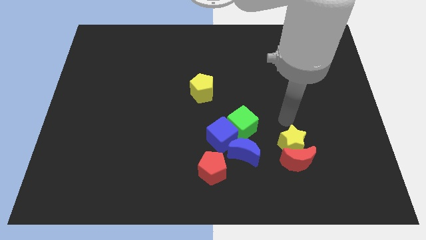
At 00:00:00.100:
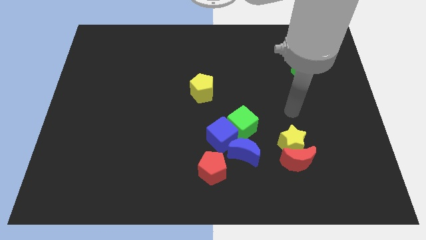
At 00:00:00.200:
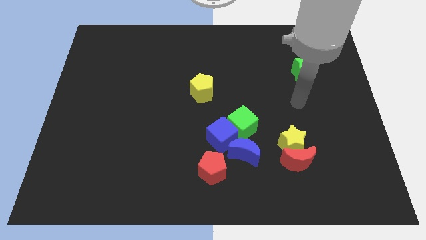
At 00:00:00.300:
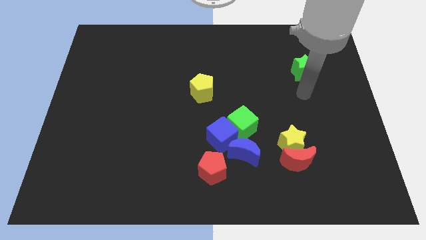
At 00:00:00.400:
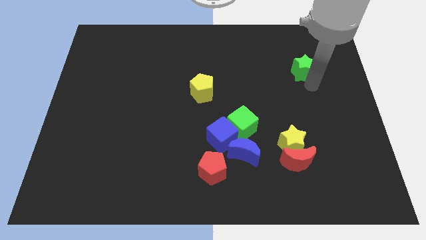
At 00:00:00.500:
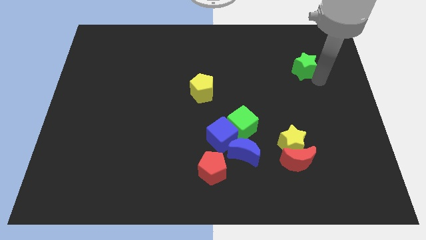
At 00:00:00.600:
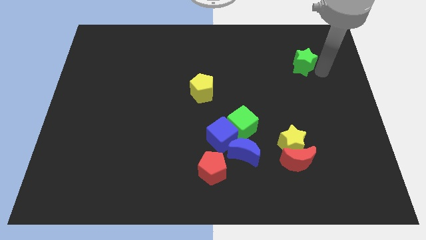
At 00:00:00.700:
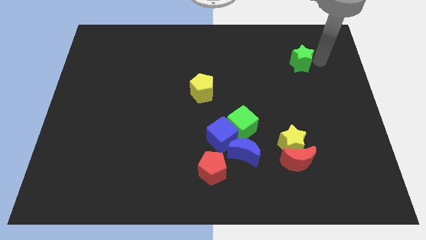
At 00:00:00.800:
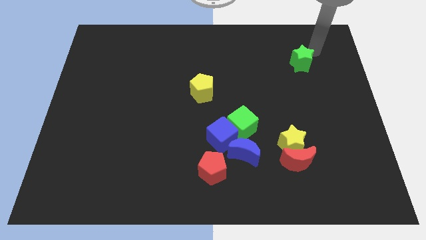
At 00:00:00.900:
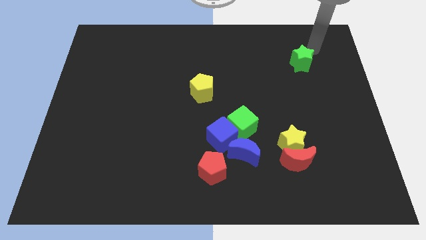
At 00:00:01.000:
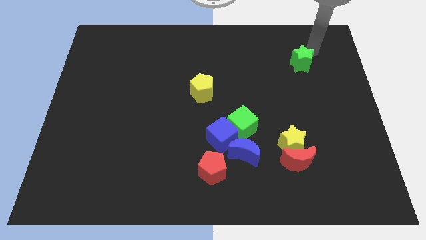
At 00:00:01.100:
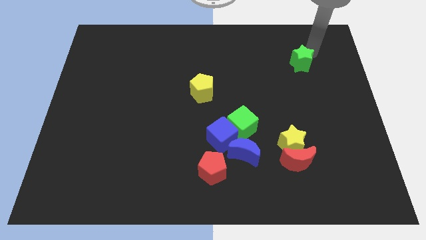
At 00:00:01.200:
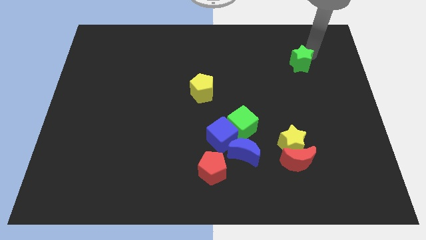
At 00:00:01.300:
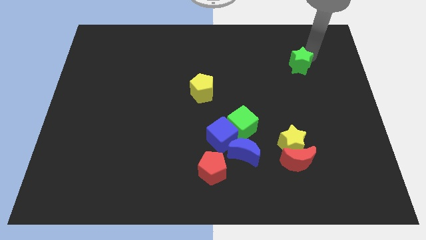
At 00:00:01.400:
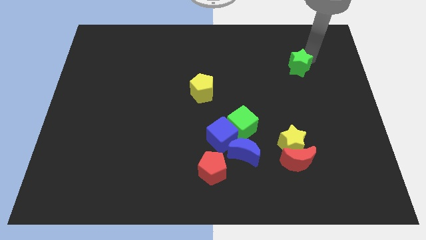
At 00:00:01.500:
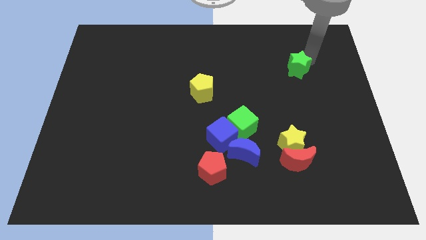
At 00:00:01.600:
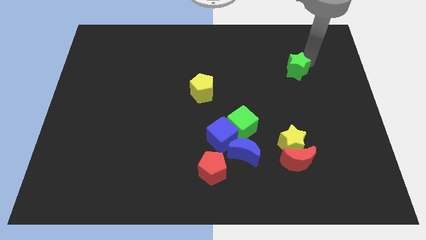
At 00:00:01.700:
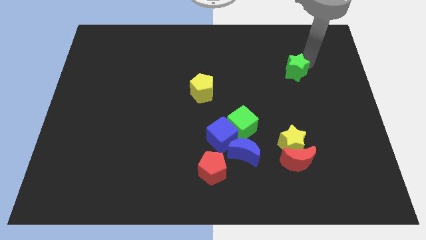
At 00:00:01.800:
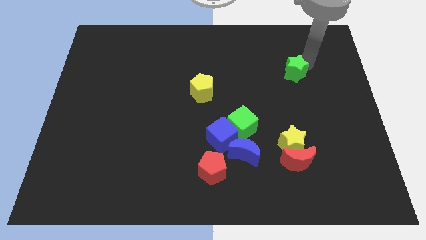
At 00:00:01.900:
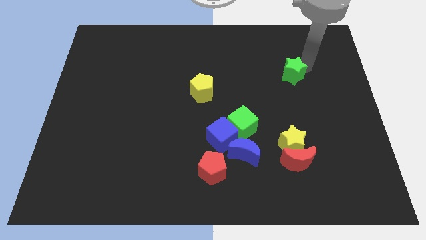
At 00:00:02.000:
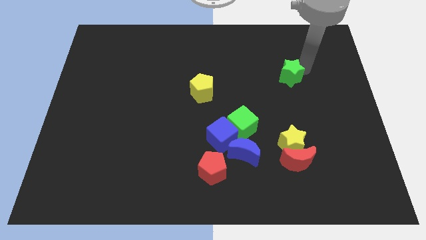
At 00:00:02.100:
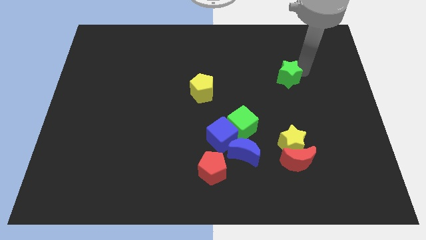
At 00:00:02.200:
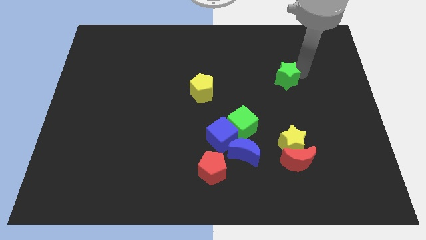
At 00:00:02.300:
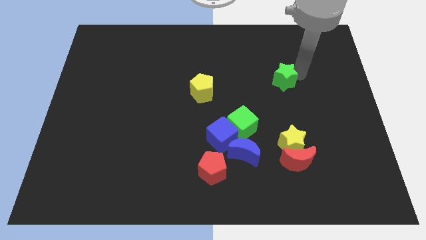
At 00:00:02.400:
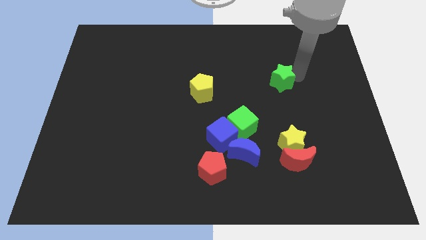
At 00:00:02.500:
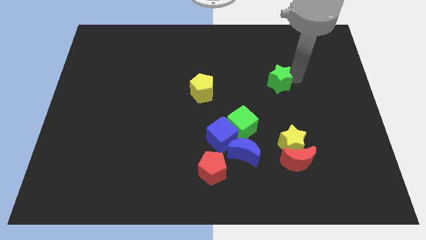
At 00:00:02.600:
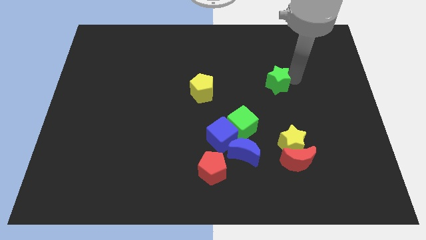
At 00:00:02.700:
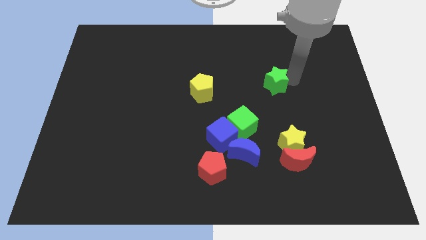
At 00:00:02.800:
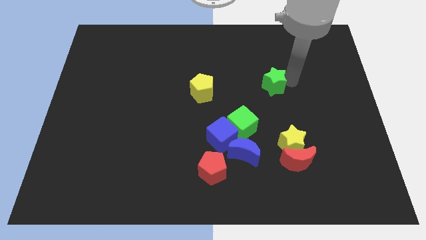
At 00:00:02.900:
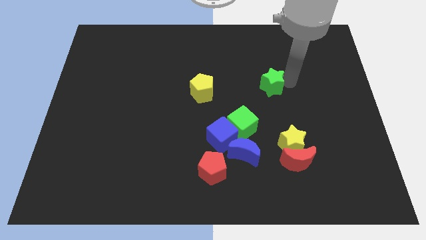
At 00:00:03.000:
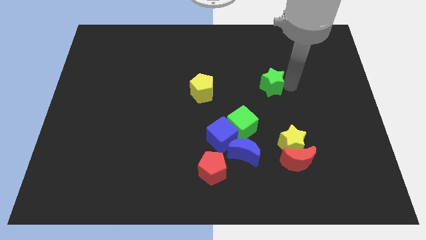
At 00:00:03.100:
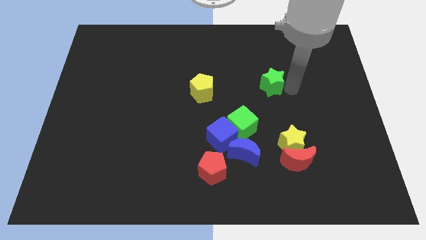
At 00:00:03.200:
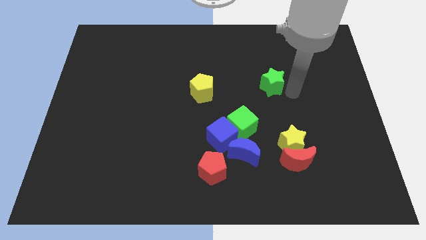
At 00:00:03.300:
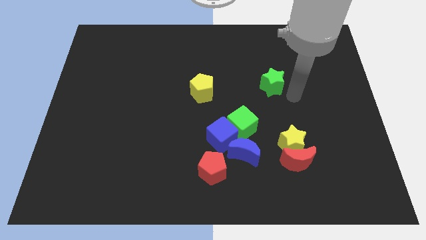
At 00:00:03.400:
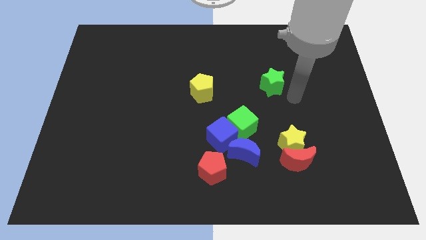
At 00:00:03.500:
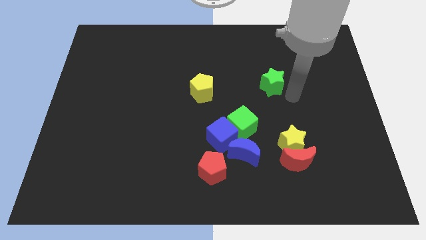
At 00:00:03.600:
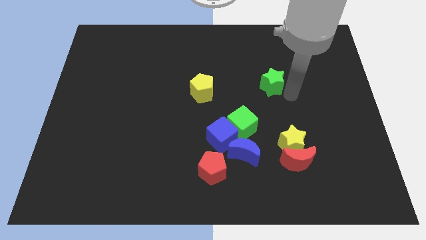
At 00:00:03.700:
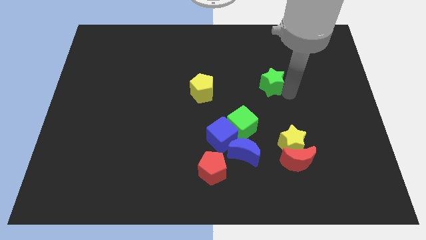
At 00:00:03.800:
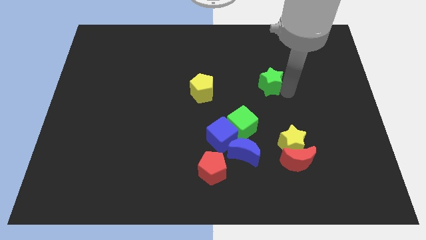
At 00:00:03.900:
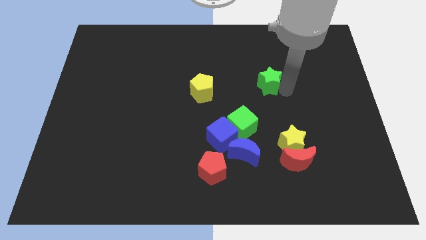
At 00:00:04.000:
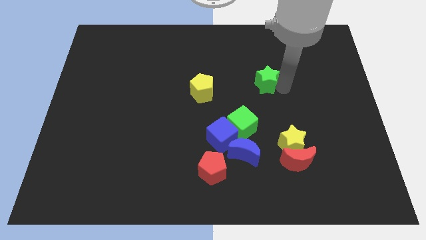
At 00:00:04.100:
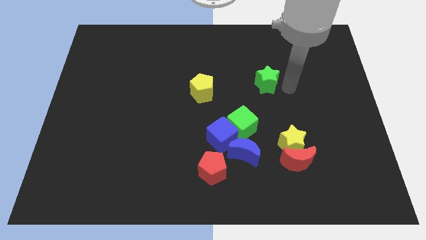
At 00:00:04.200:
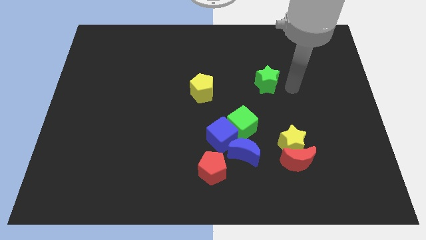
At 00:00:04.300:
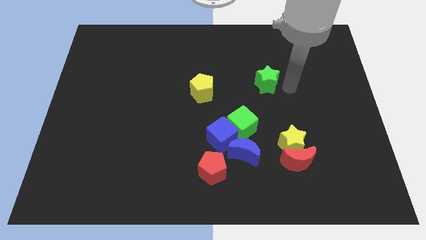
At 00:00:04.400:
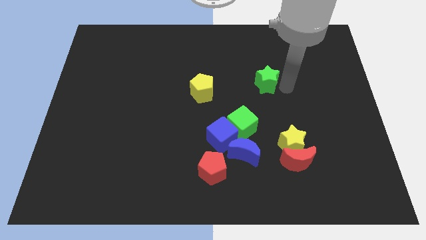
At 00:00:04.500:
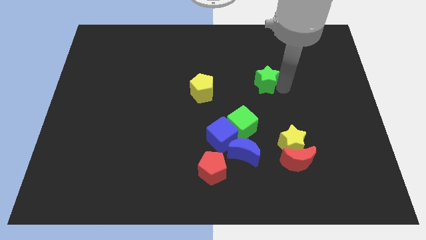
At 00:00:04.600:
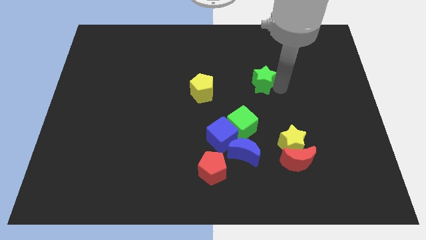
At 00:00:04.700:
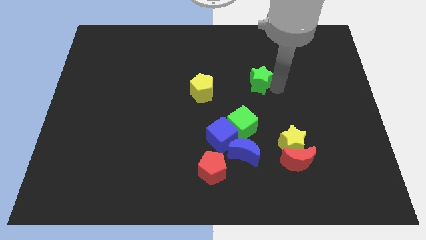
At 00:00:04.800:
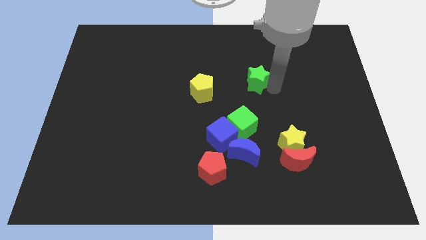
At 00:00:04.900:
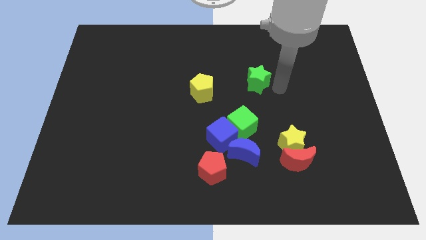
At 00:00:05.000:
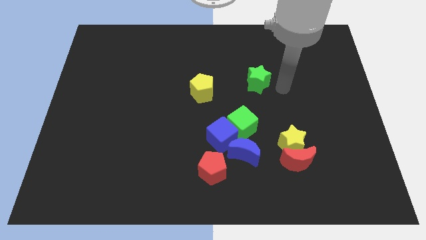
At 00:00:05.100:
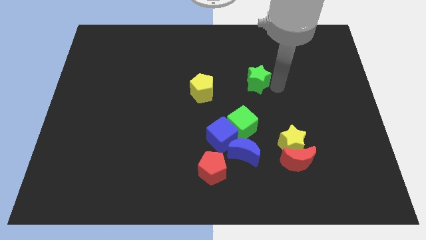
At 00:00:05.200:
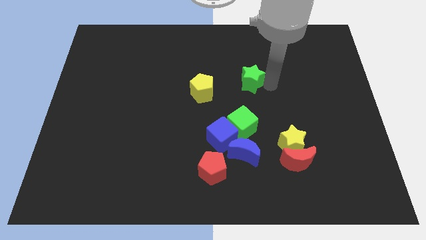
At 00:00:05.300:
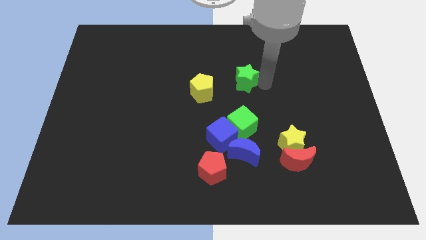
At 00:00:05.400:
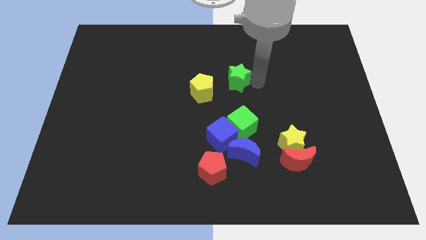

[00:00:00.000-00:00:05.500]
slide the green star diagonally up and to the right of the yellow pentagon

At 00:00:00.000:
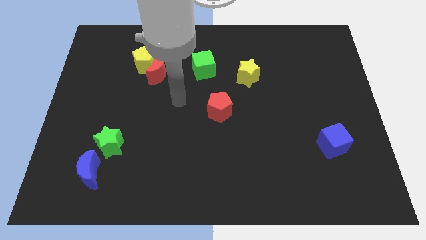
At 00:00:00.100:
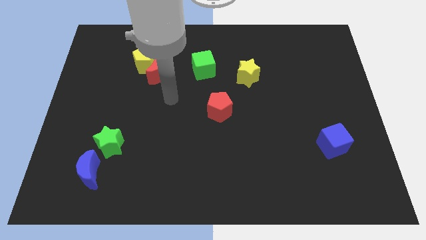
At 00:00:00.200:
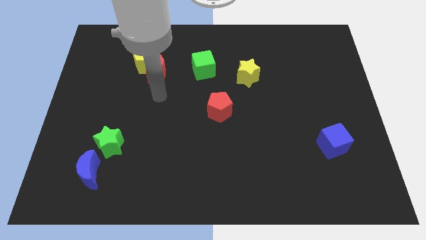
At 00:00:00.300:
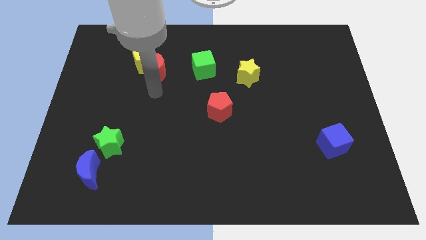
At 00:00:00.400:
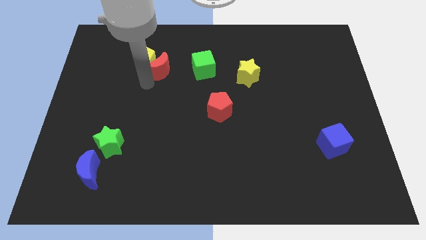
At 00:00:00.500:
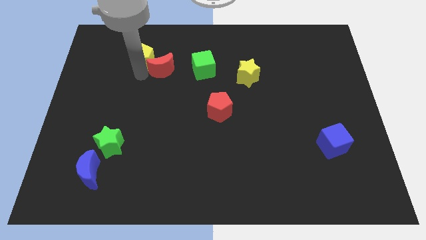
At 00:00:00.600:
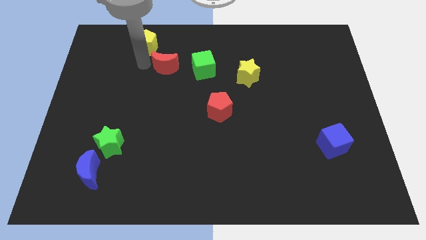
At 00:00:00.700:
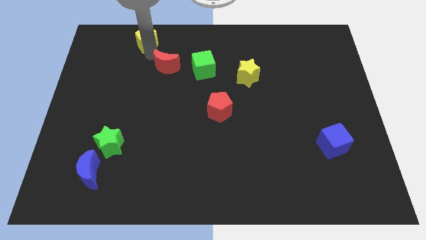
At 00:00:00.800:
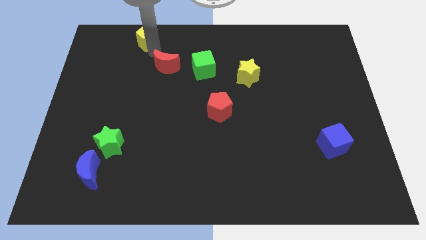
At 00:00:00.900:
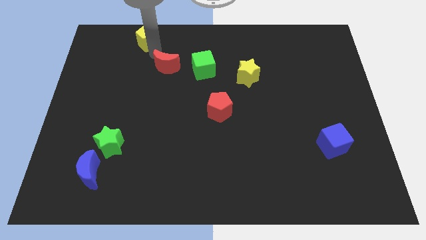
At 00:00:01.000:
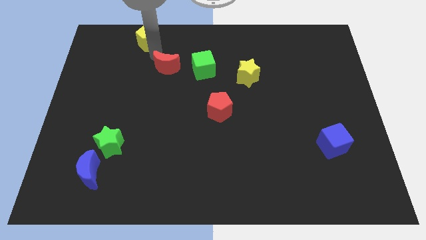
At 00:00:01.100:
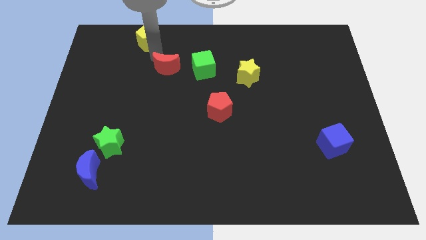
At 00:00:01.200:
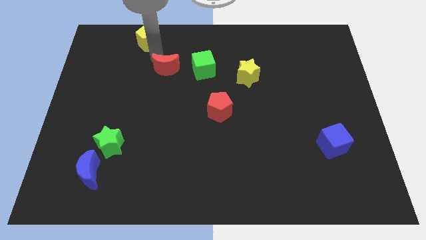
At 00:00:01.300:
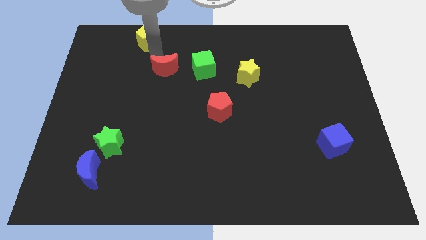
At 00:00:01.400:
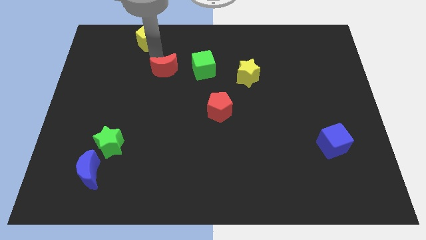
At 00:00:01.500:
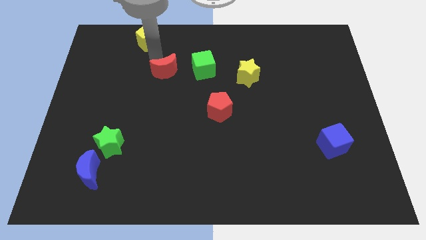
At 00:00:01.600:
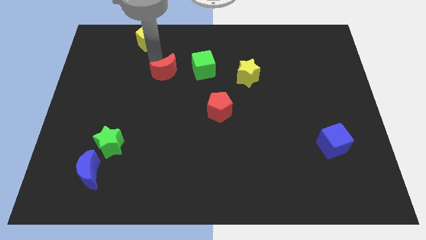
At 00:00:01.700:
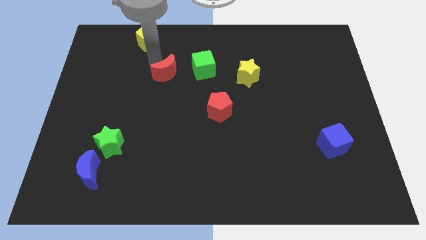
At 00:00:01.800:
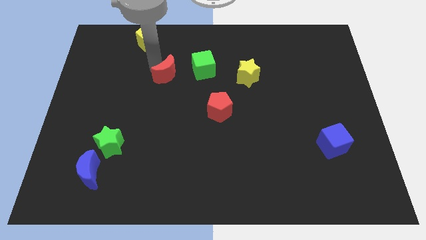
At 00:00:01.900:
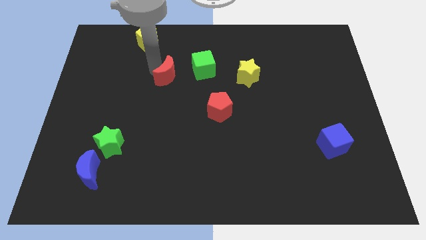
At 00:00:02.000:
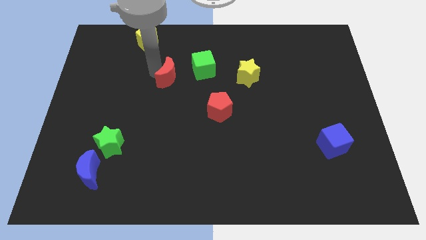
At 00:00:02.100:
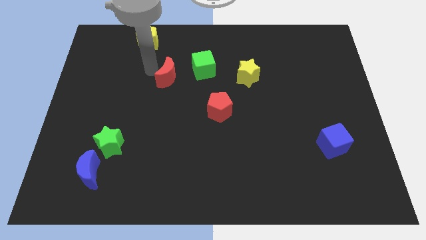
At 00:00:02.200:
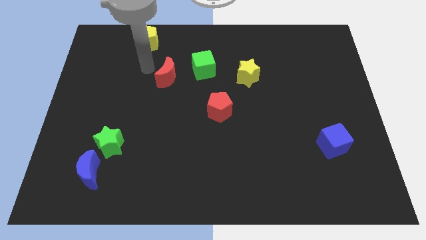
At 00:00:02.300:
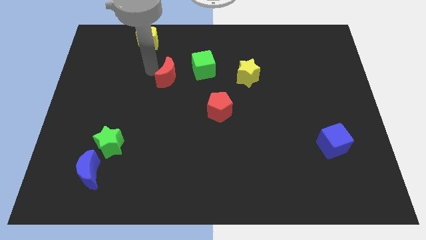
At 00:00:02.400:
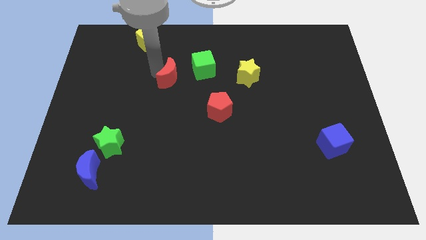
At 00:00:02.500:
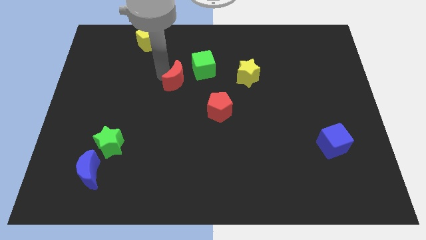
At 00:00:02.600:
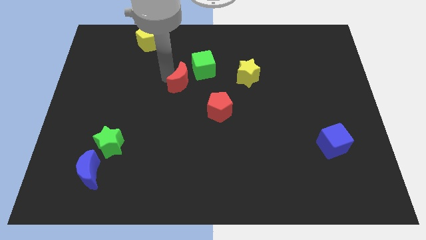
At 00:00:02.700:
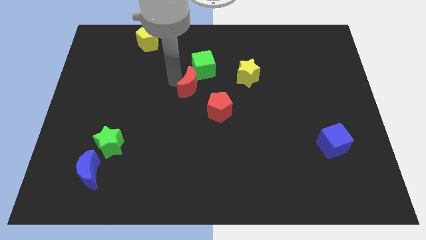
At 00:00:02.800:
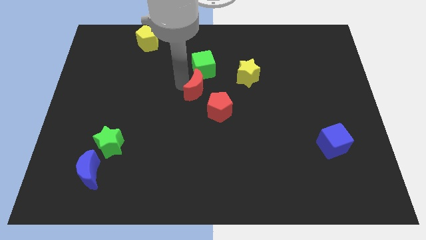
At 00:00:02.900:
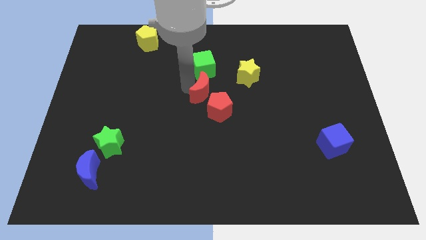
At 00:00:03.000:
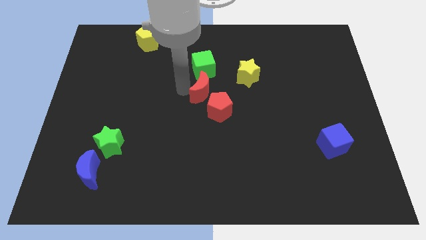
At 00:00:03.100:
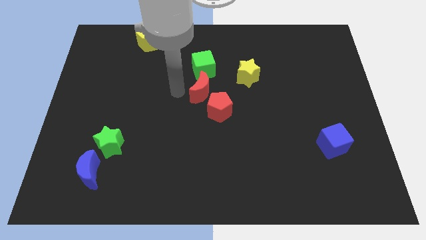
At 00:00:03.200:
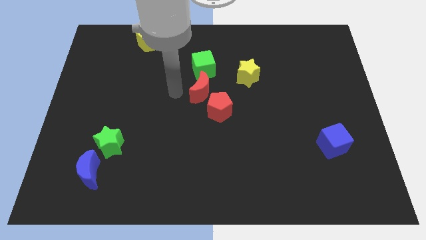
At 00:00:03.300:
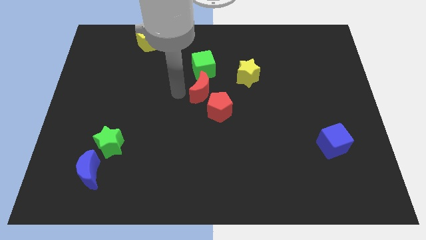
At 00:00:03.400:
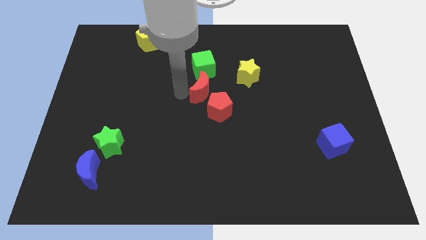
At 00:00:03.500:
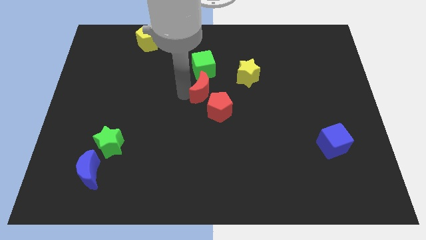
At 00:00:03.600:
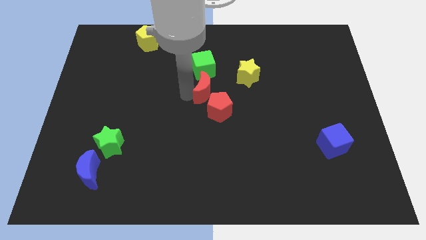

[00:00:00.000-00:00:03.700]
slide the red moon to the bottom left of the yellow star
